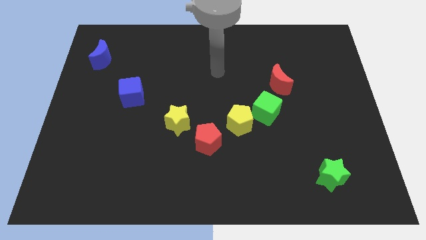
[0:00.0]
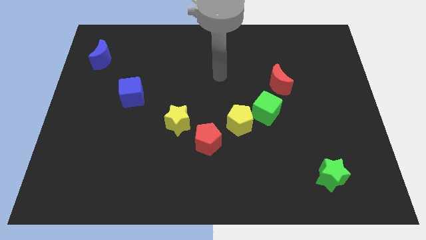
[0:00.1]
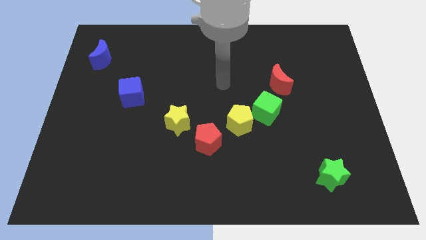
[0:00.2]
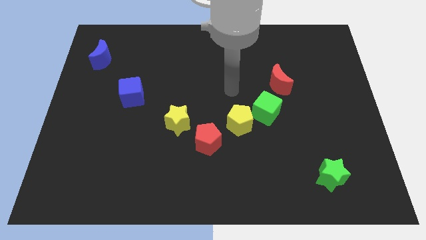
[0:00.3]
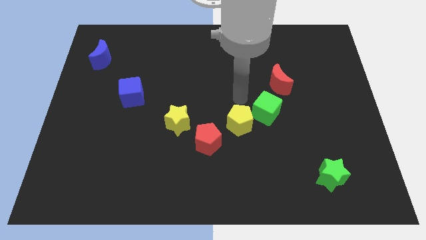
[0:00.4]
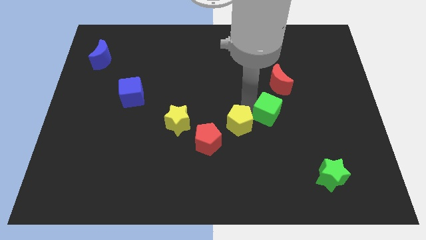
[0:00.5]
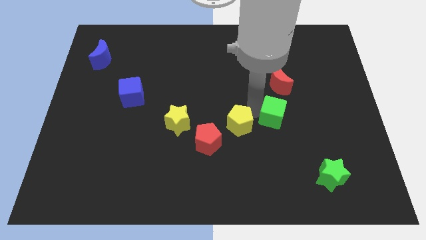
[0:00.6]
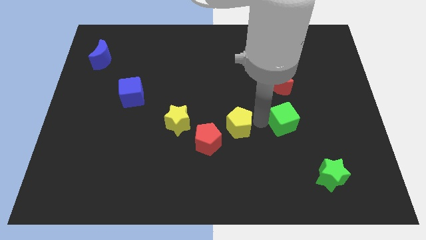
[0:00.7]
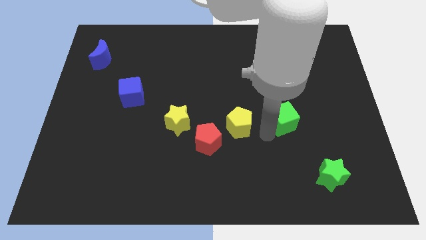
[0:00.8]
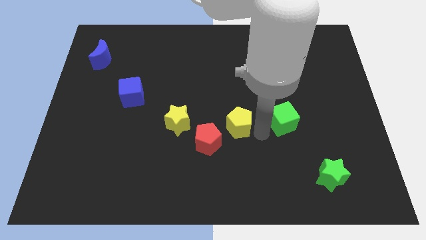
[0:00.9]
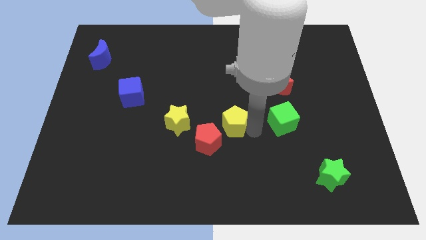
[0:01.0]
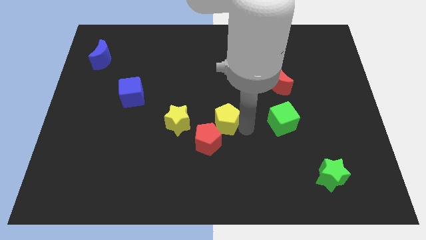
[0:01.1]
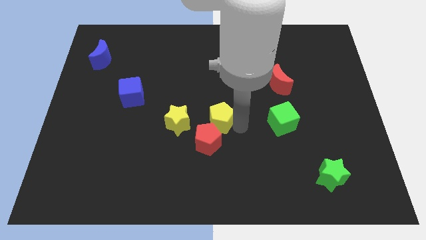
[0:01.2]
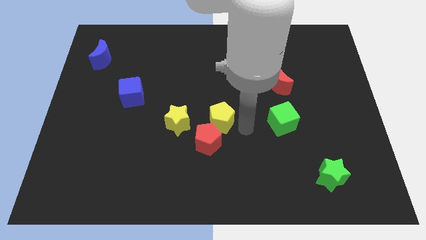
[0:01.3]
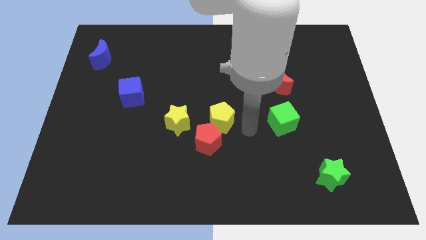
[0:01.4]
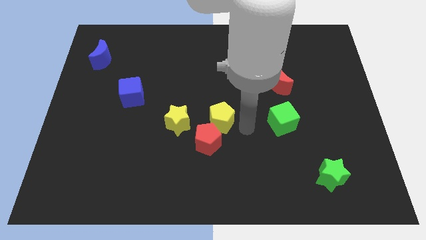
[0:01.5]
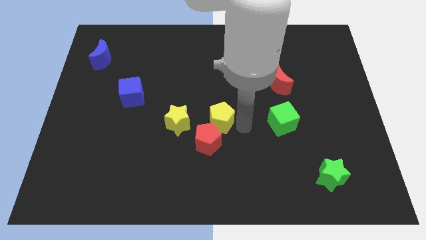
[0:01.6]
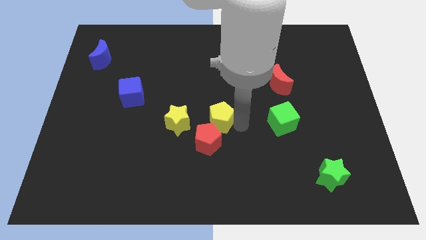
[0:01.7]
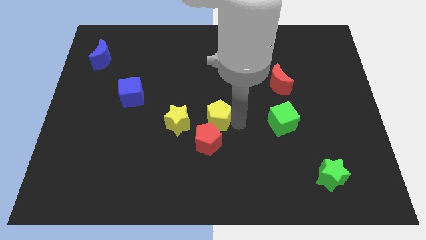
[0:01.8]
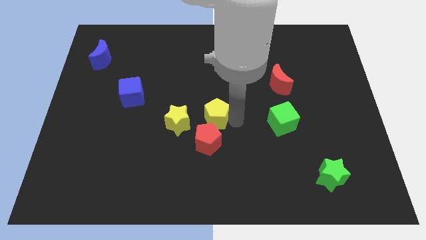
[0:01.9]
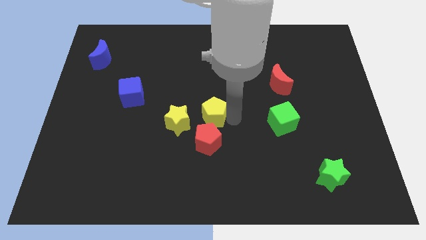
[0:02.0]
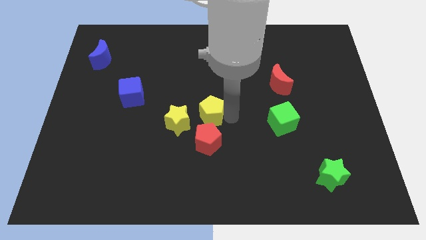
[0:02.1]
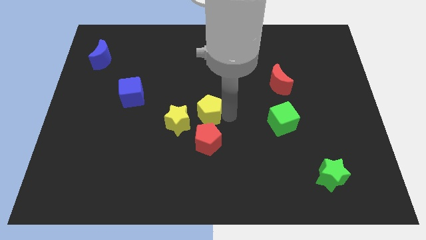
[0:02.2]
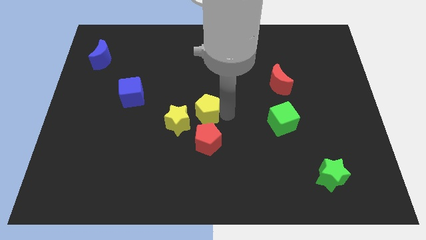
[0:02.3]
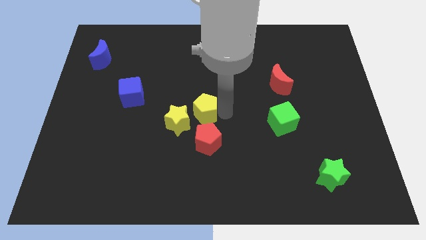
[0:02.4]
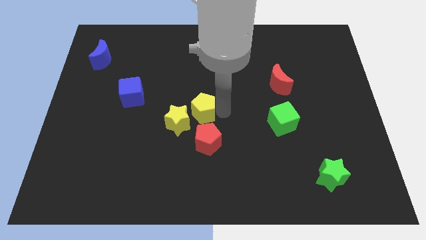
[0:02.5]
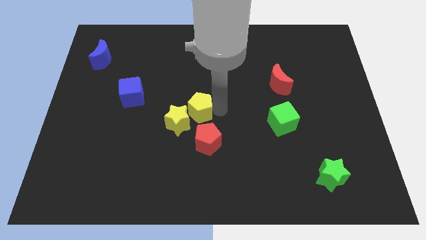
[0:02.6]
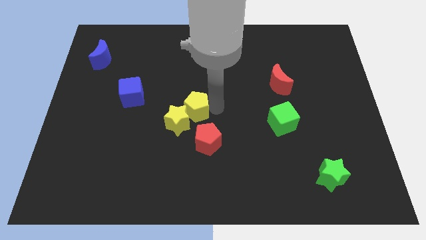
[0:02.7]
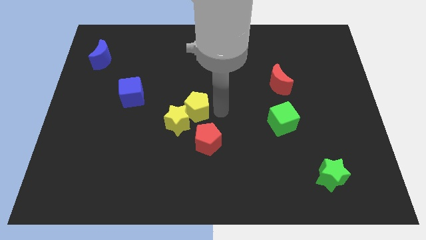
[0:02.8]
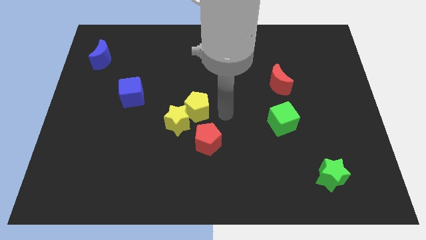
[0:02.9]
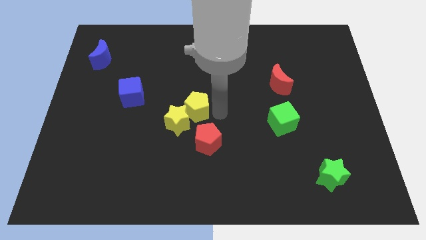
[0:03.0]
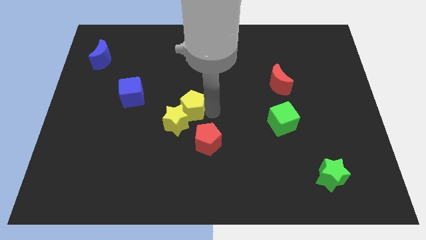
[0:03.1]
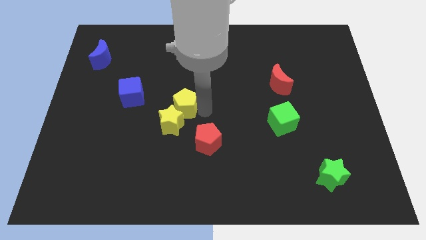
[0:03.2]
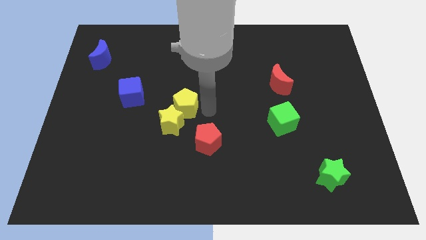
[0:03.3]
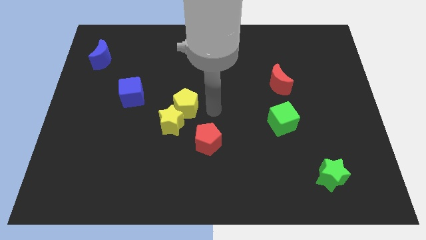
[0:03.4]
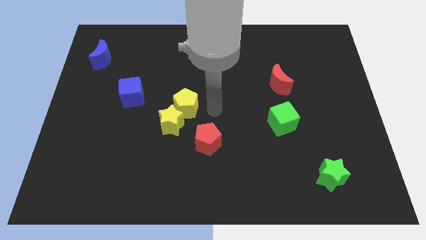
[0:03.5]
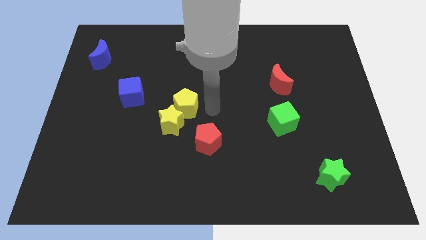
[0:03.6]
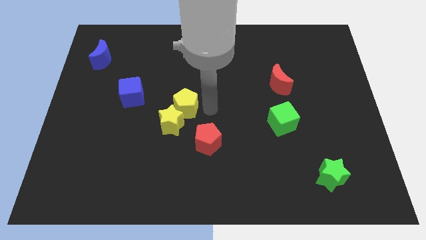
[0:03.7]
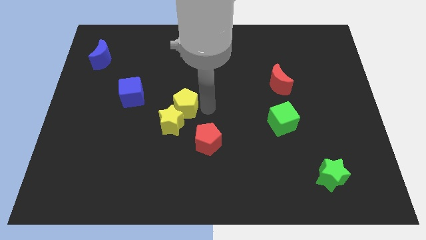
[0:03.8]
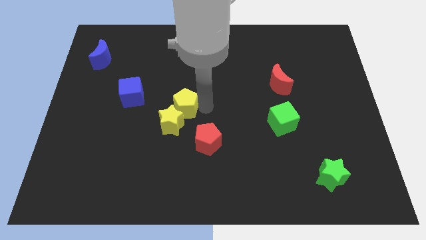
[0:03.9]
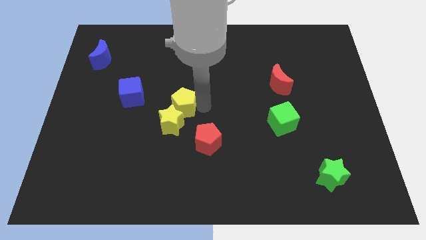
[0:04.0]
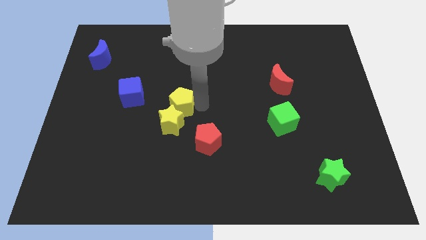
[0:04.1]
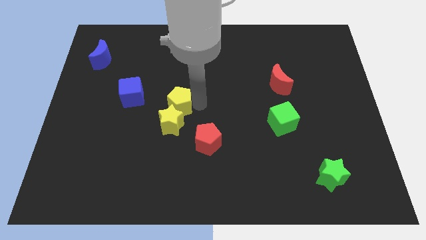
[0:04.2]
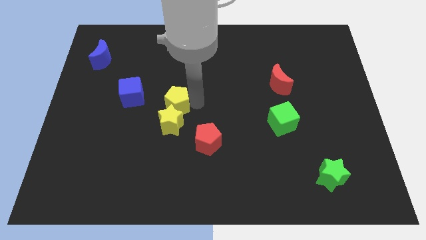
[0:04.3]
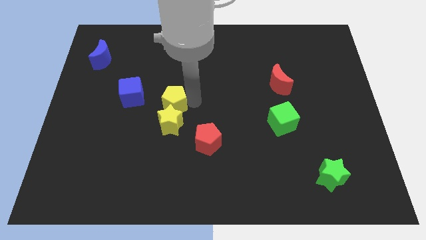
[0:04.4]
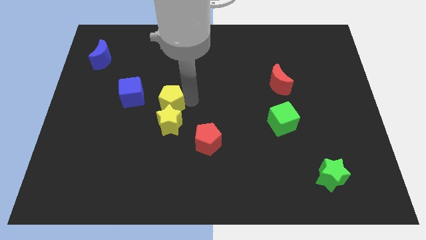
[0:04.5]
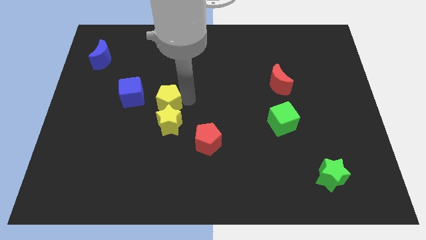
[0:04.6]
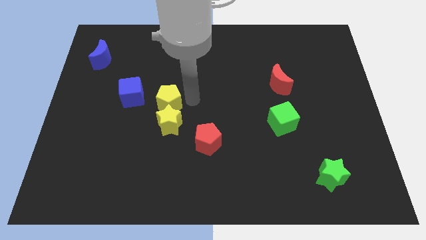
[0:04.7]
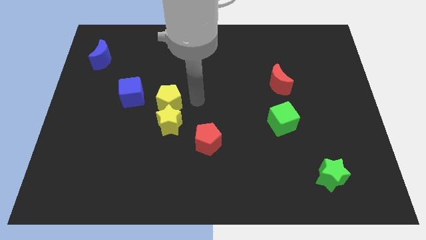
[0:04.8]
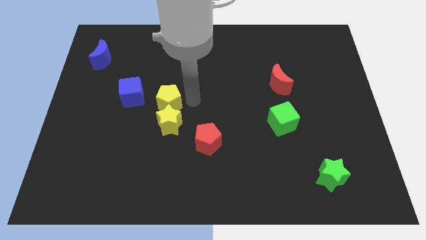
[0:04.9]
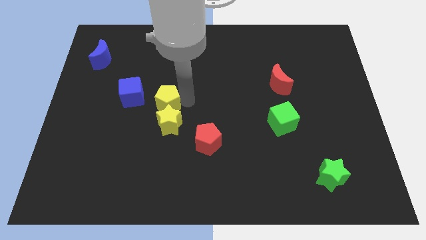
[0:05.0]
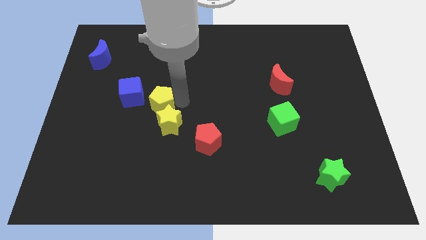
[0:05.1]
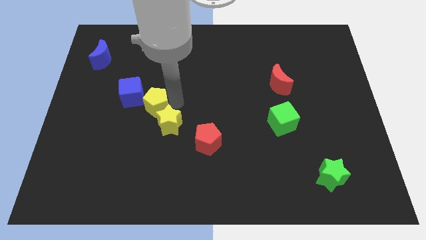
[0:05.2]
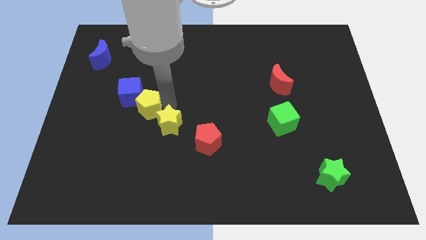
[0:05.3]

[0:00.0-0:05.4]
put the yellow pentagon next to the blue cube

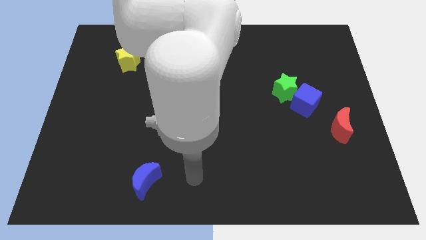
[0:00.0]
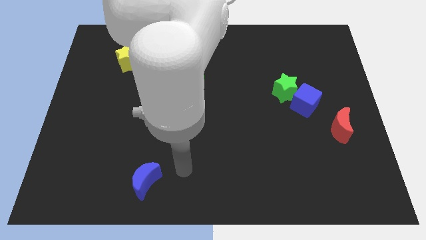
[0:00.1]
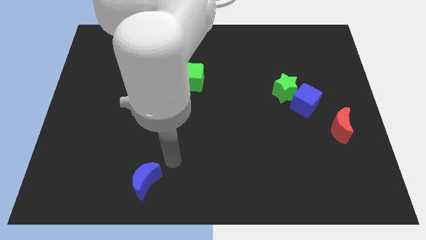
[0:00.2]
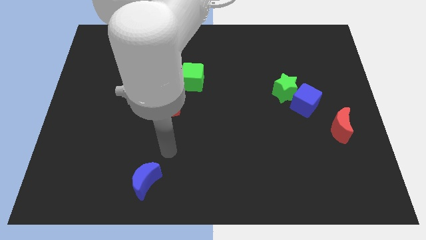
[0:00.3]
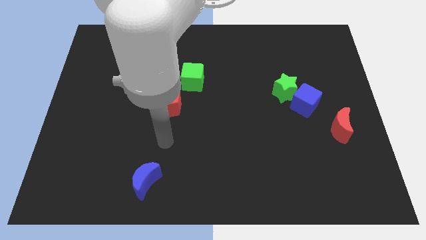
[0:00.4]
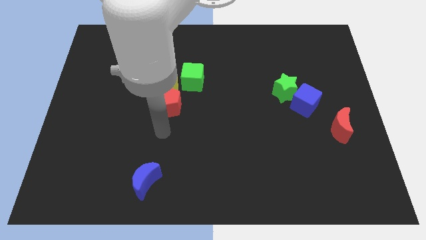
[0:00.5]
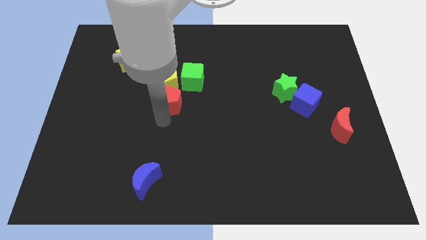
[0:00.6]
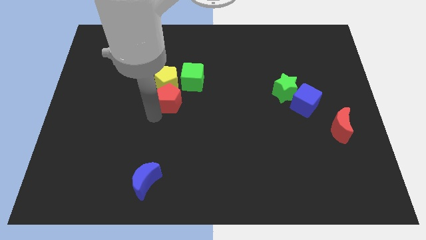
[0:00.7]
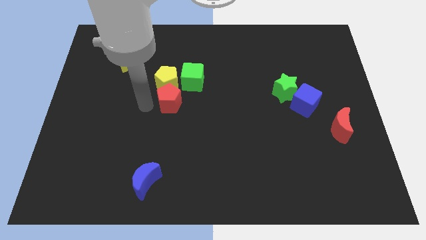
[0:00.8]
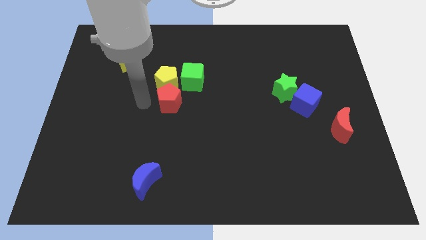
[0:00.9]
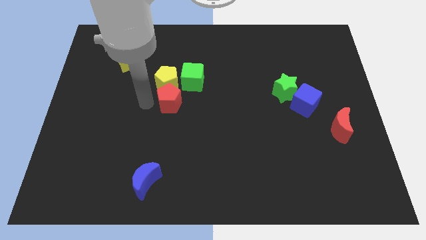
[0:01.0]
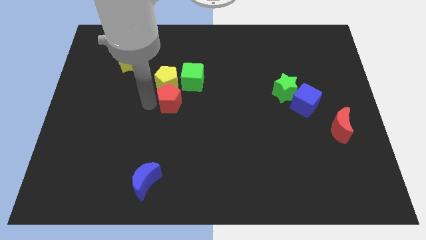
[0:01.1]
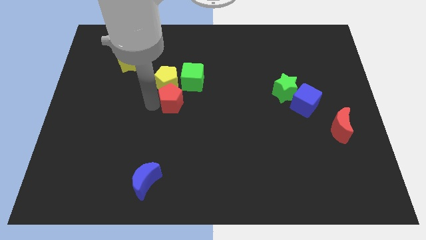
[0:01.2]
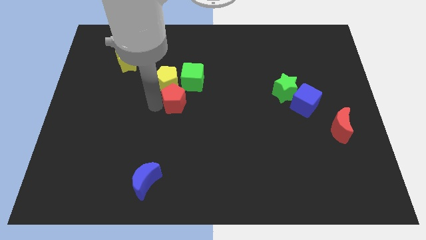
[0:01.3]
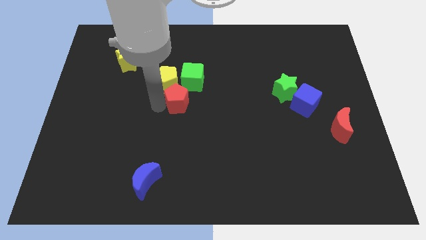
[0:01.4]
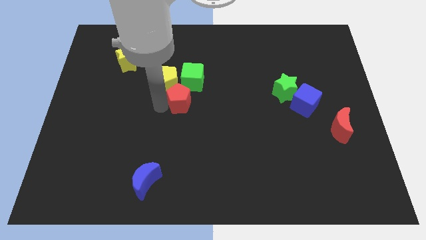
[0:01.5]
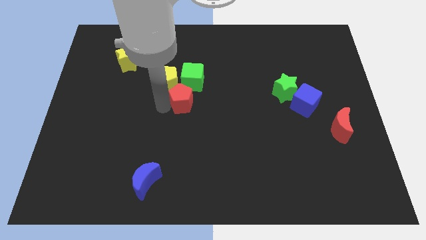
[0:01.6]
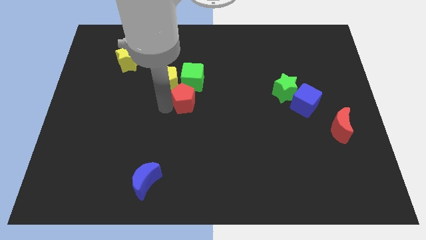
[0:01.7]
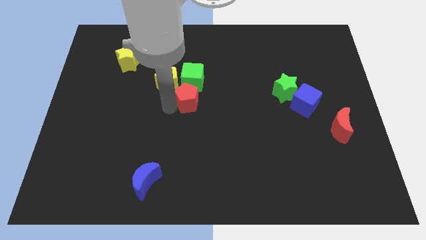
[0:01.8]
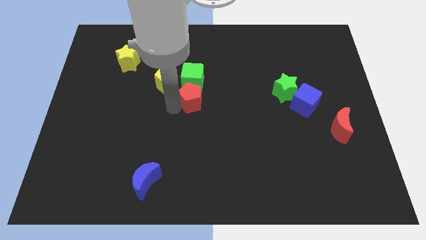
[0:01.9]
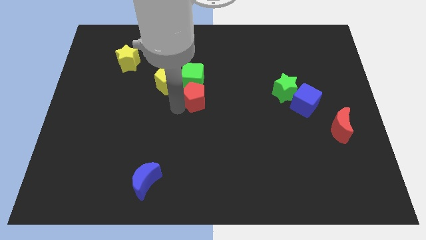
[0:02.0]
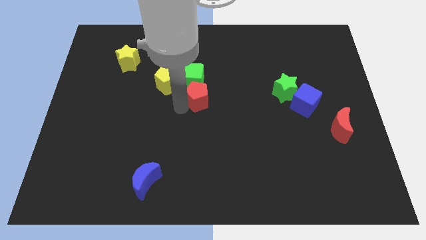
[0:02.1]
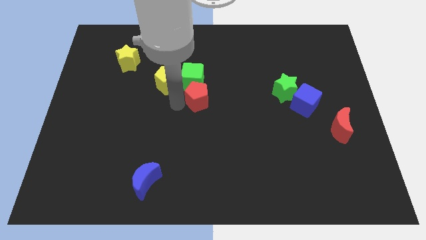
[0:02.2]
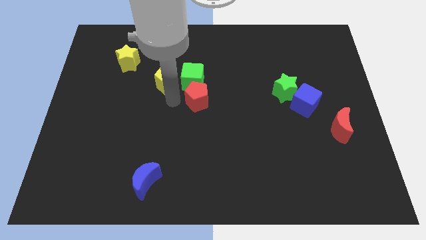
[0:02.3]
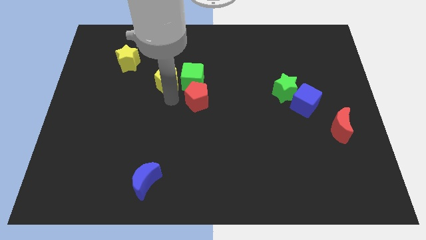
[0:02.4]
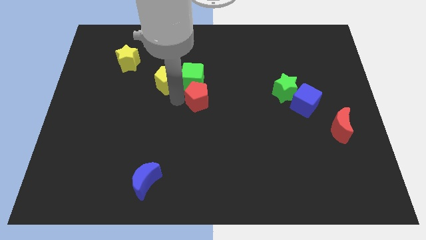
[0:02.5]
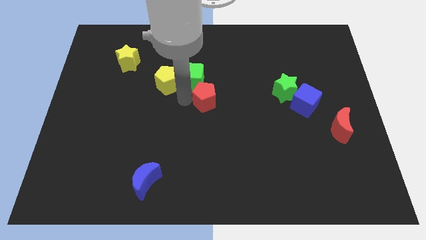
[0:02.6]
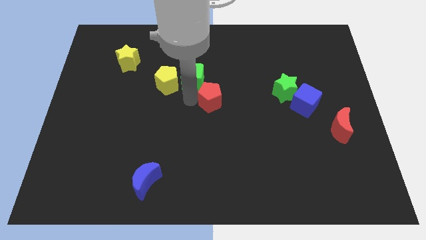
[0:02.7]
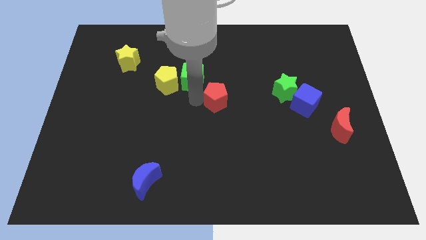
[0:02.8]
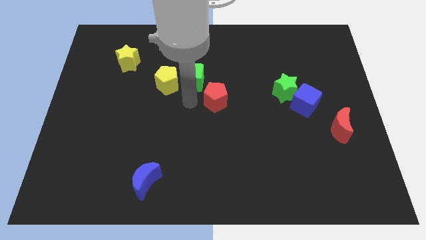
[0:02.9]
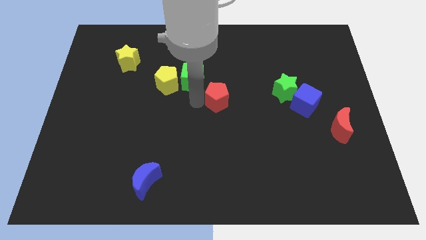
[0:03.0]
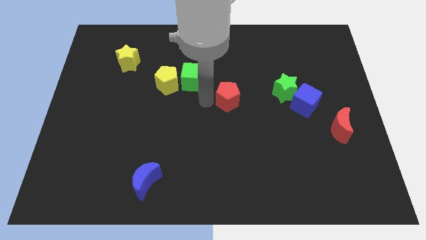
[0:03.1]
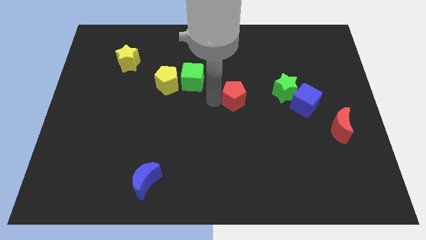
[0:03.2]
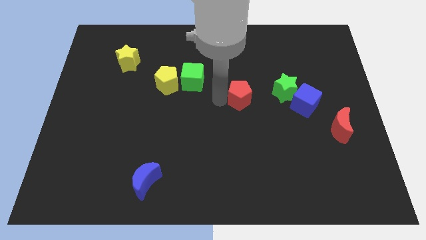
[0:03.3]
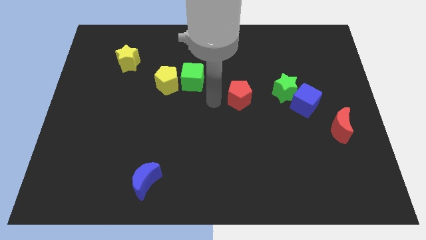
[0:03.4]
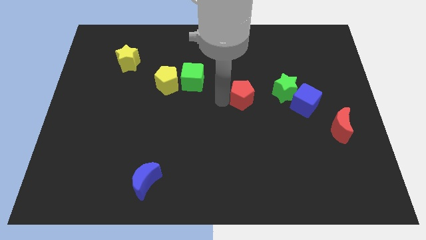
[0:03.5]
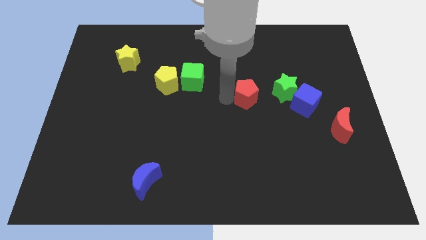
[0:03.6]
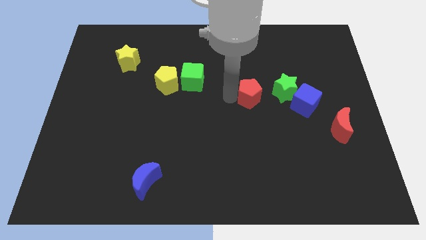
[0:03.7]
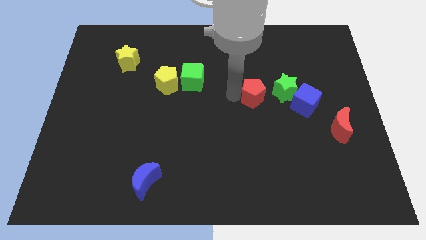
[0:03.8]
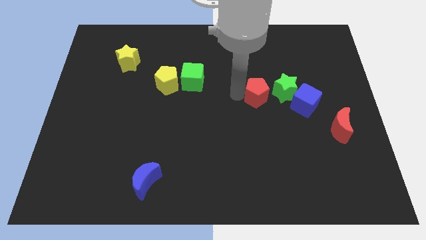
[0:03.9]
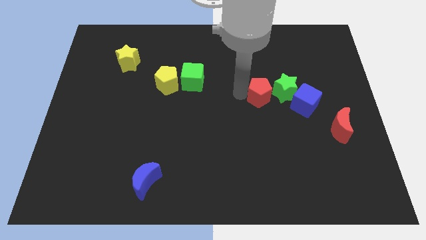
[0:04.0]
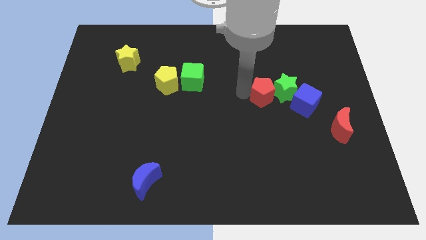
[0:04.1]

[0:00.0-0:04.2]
move the red pentagon close to the green star
